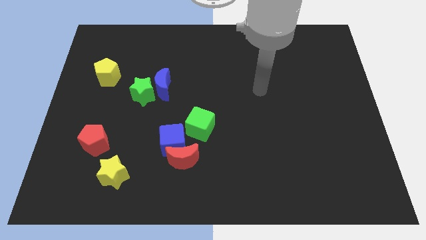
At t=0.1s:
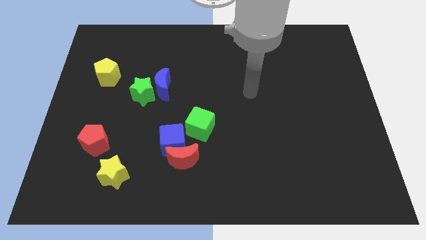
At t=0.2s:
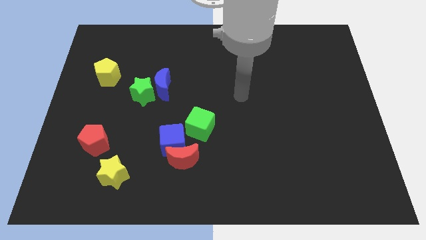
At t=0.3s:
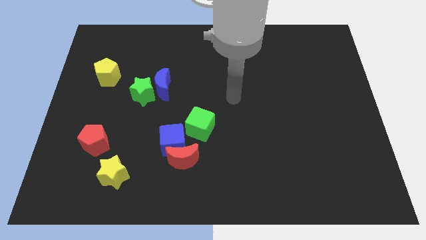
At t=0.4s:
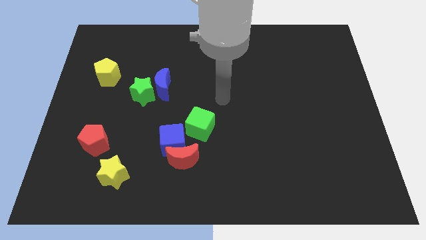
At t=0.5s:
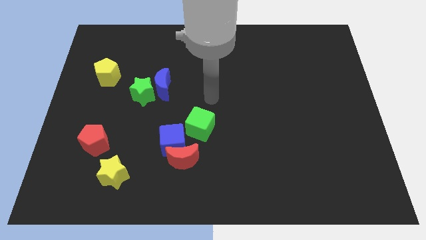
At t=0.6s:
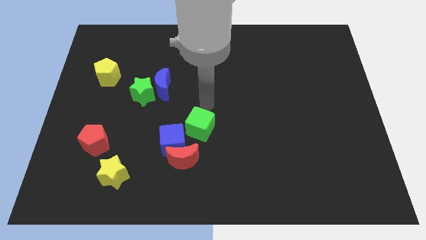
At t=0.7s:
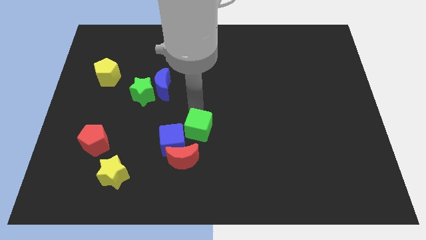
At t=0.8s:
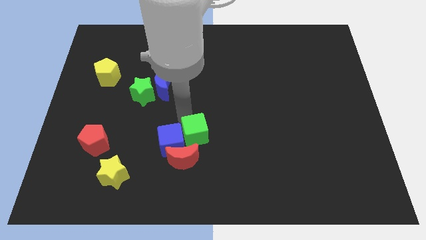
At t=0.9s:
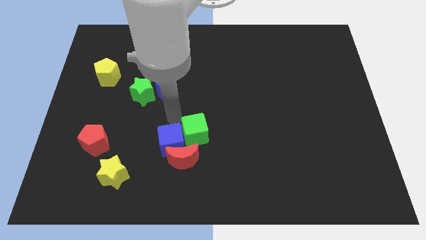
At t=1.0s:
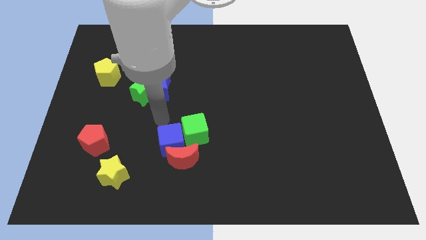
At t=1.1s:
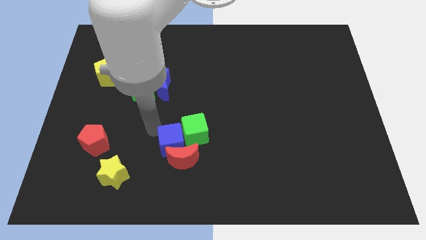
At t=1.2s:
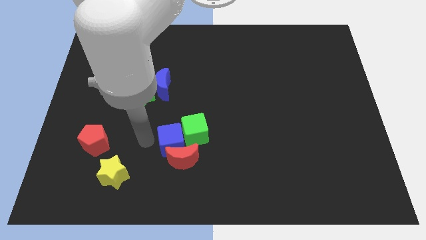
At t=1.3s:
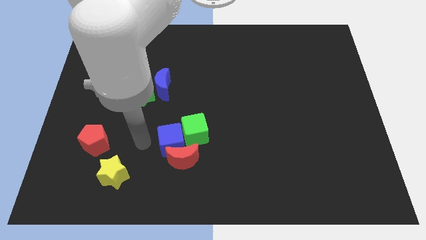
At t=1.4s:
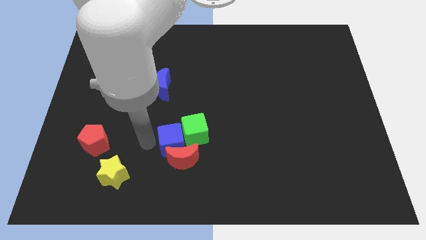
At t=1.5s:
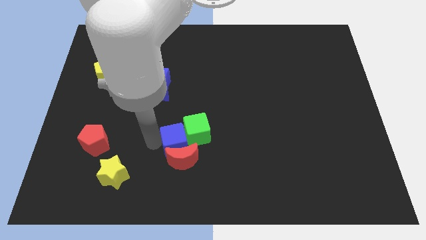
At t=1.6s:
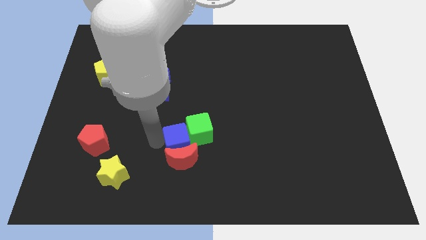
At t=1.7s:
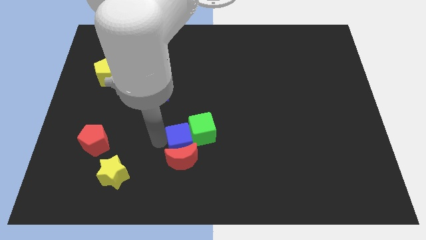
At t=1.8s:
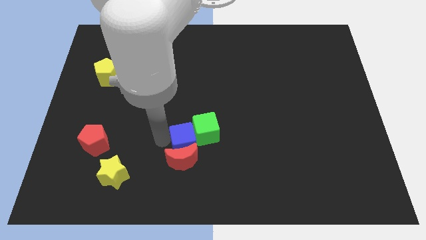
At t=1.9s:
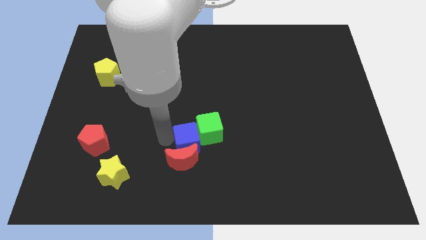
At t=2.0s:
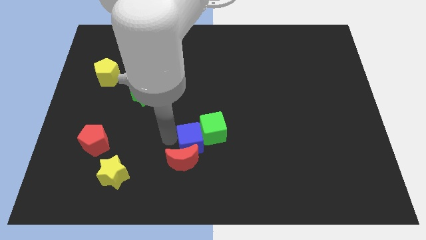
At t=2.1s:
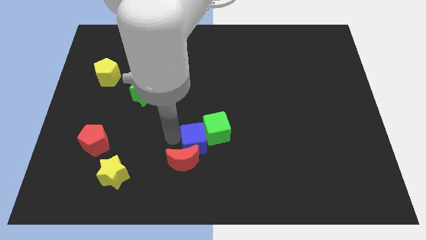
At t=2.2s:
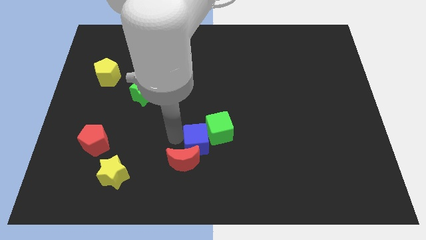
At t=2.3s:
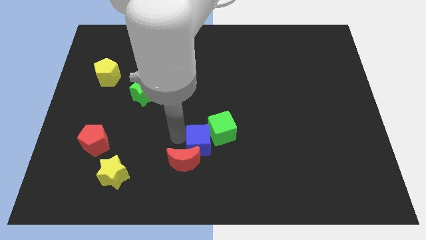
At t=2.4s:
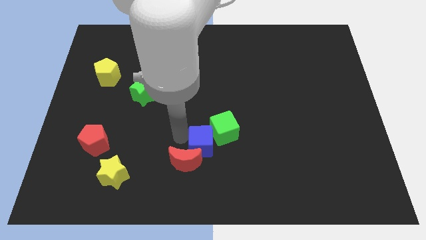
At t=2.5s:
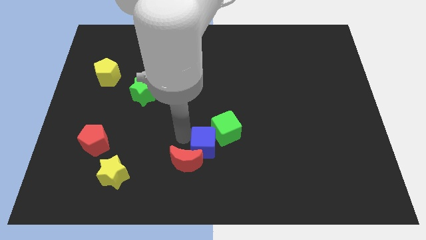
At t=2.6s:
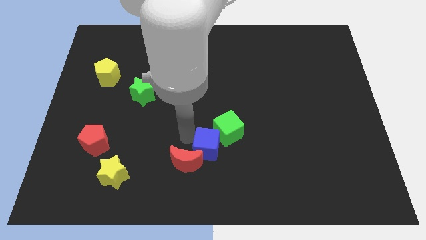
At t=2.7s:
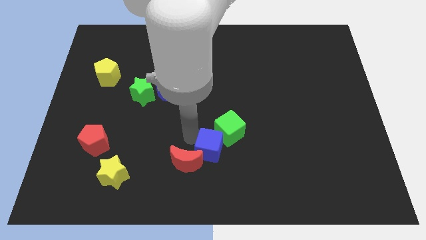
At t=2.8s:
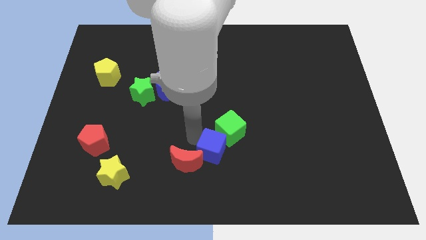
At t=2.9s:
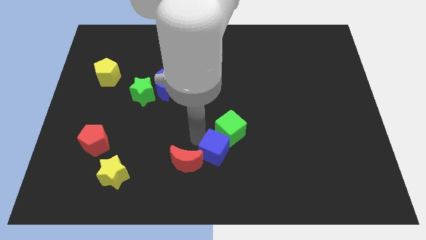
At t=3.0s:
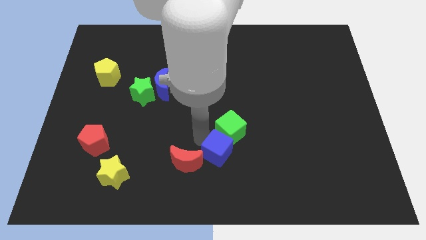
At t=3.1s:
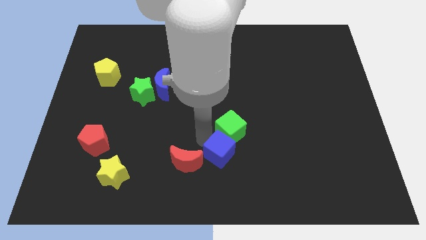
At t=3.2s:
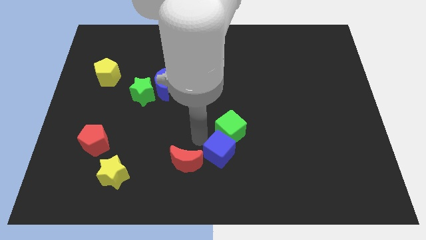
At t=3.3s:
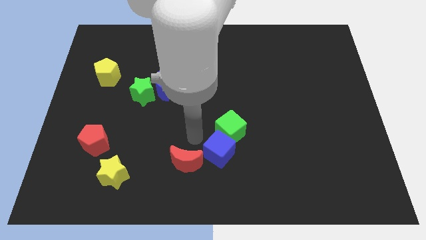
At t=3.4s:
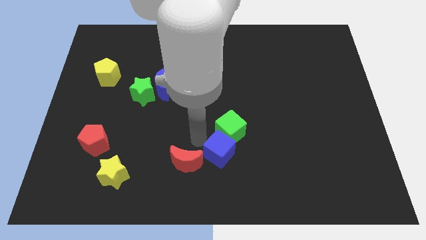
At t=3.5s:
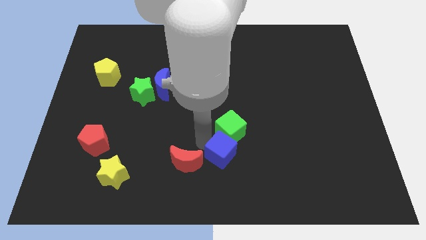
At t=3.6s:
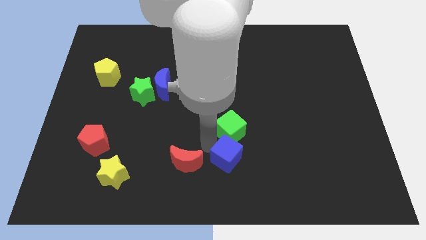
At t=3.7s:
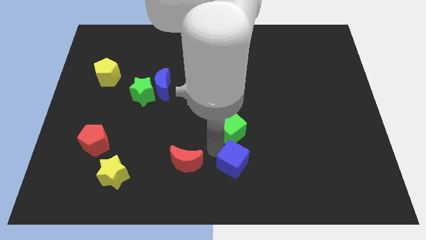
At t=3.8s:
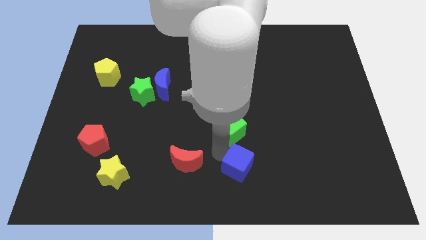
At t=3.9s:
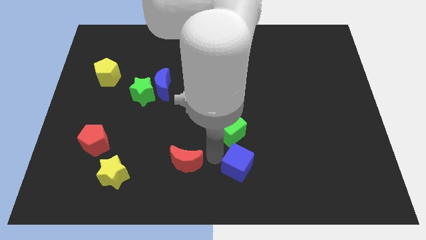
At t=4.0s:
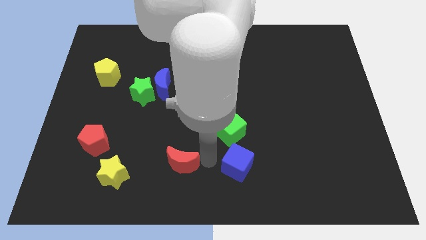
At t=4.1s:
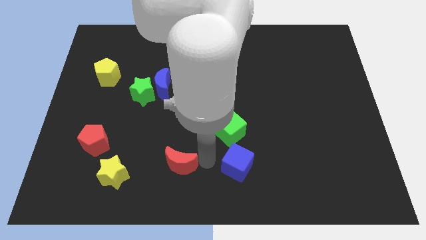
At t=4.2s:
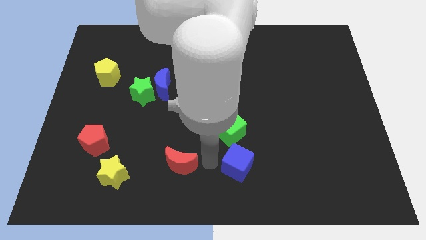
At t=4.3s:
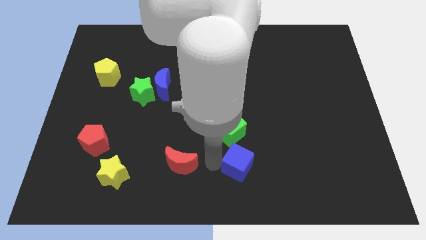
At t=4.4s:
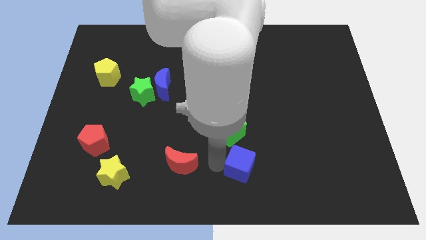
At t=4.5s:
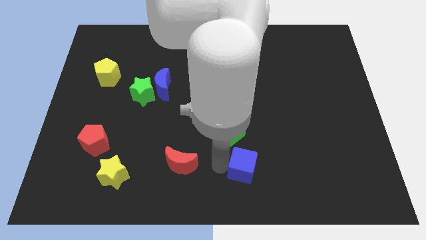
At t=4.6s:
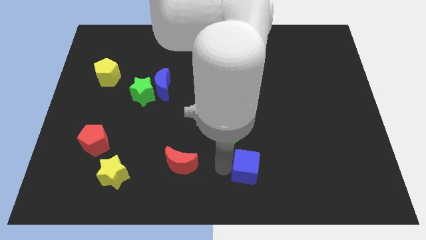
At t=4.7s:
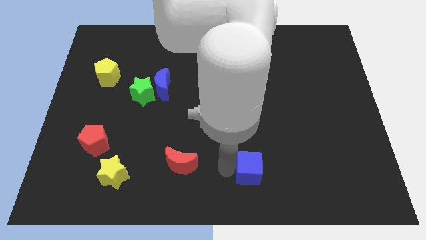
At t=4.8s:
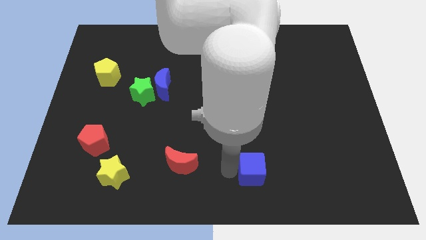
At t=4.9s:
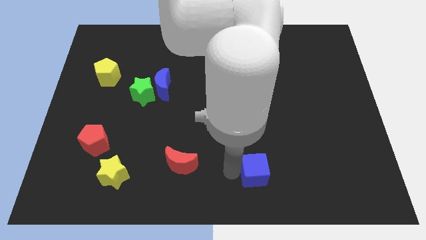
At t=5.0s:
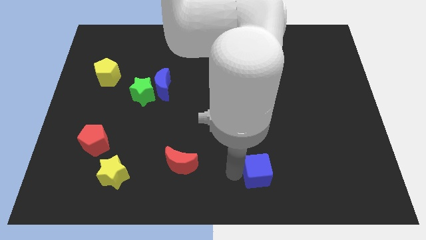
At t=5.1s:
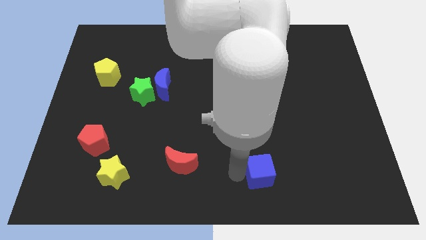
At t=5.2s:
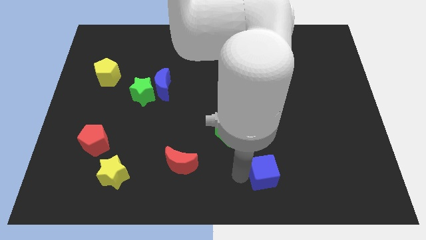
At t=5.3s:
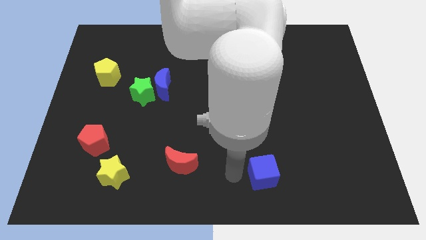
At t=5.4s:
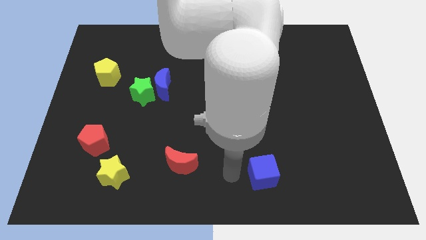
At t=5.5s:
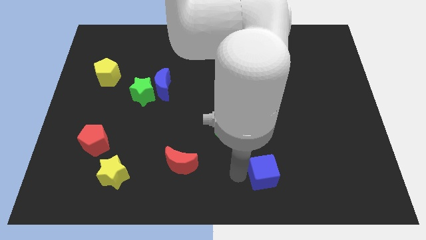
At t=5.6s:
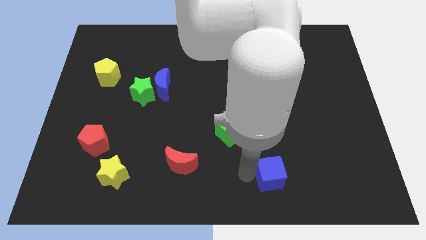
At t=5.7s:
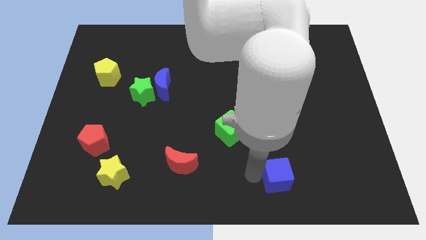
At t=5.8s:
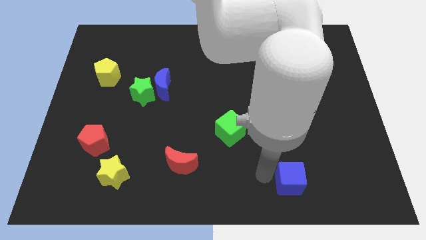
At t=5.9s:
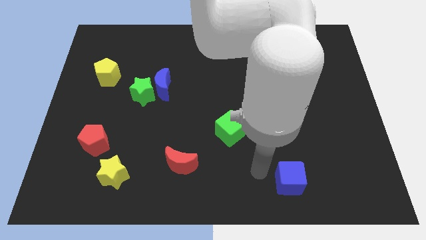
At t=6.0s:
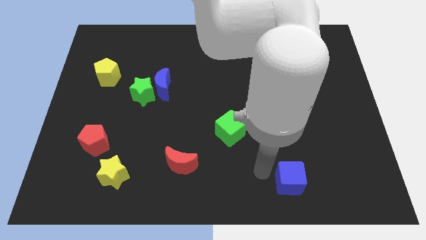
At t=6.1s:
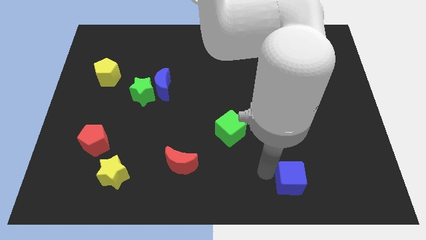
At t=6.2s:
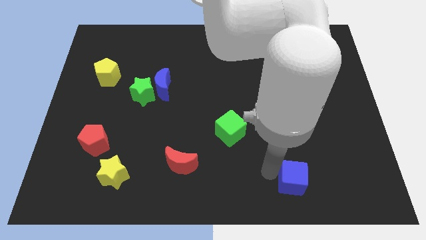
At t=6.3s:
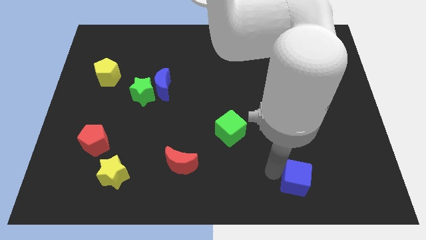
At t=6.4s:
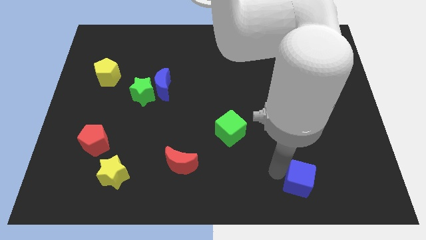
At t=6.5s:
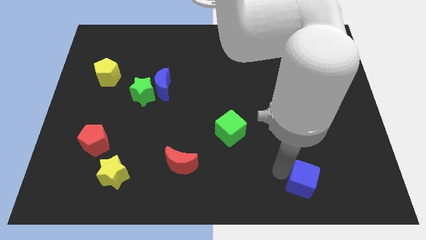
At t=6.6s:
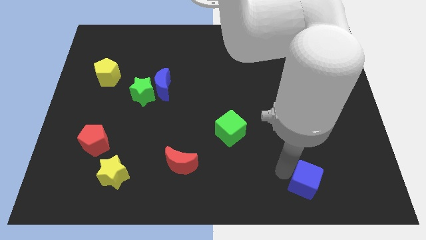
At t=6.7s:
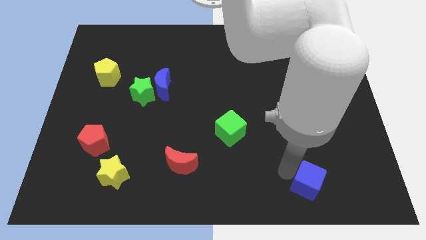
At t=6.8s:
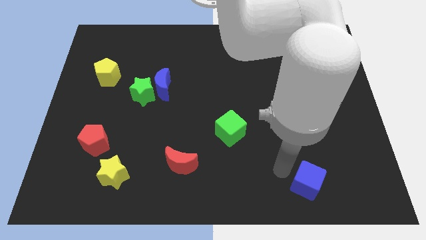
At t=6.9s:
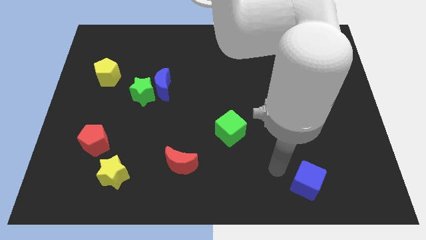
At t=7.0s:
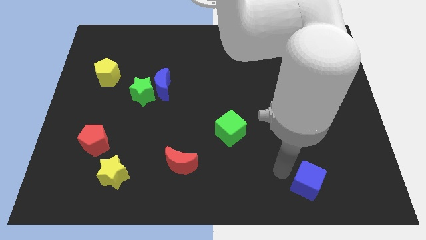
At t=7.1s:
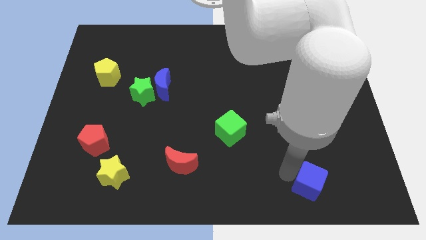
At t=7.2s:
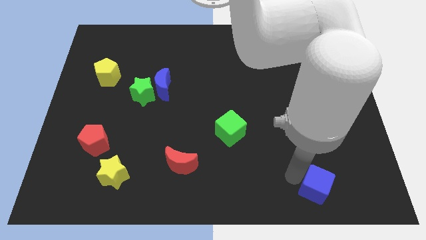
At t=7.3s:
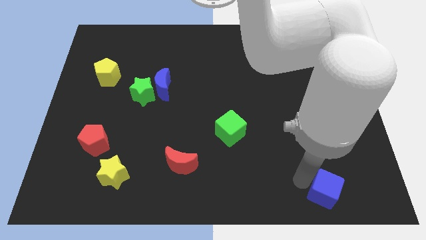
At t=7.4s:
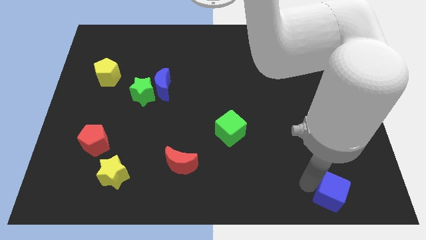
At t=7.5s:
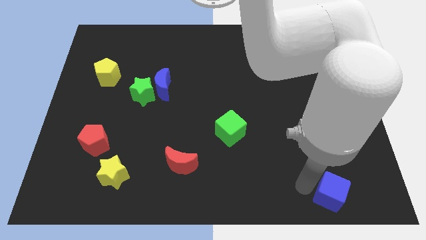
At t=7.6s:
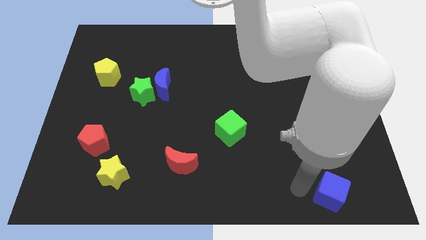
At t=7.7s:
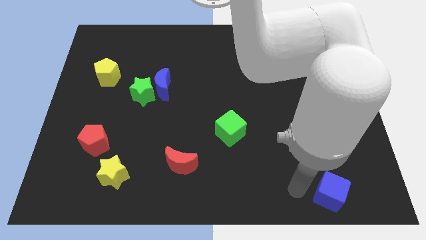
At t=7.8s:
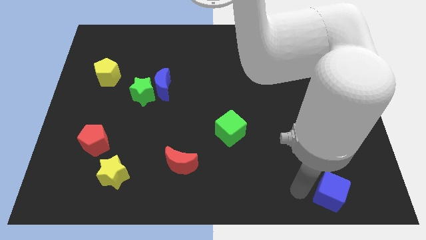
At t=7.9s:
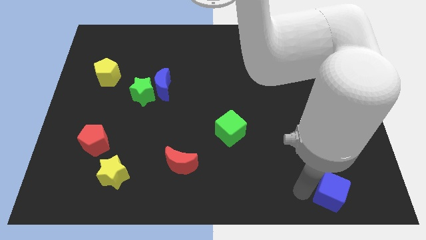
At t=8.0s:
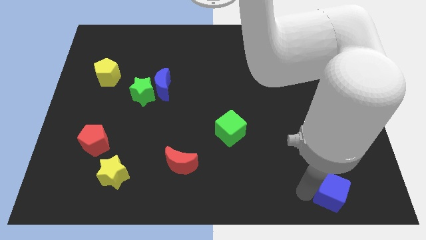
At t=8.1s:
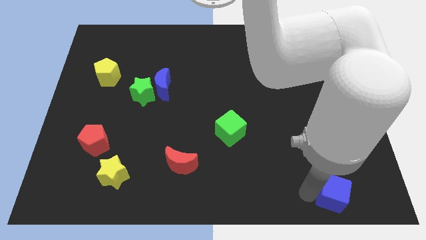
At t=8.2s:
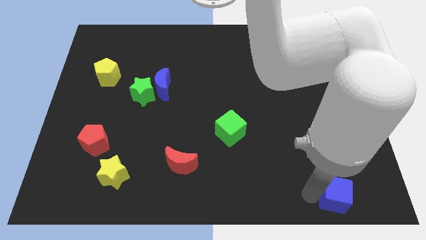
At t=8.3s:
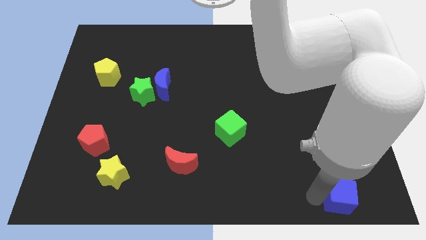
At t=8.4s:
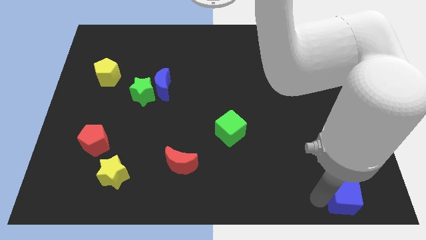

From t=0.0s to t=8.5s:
move the blue cube to the lower right corner
